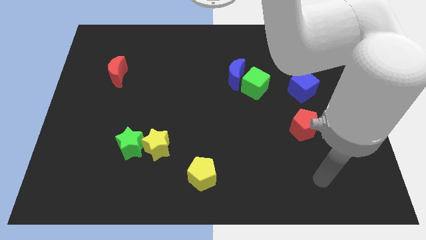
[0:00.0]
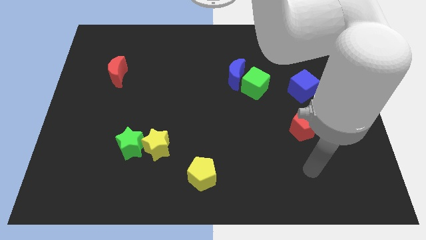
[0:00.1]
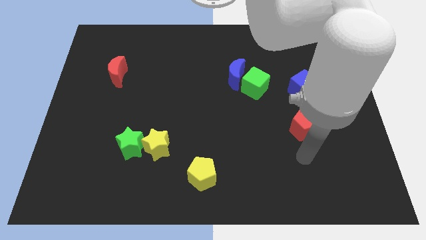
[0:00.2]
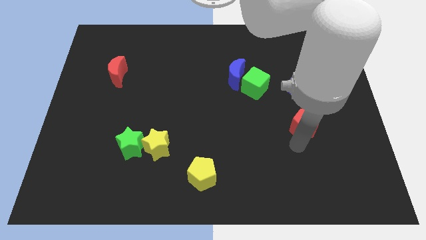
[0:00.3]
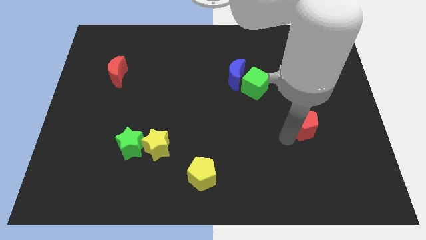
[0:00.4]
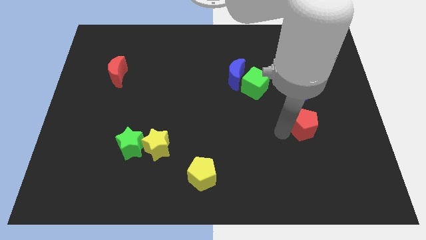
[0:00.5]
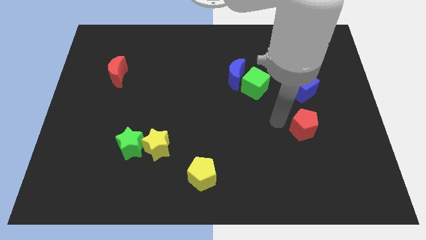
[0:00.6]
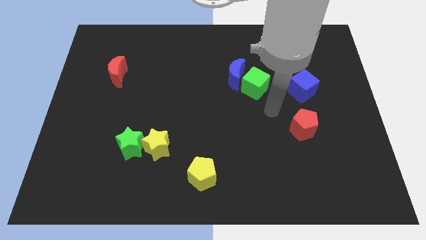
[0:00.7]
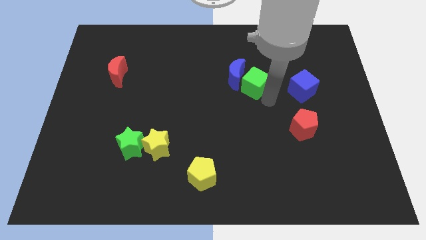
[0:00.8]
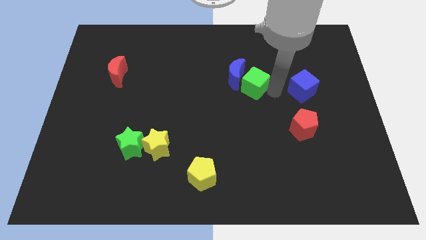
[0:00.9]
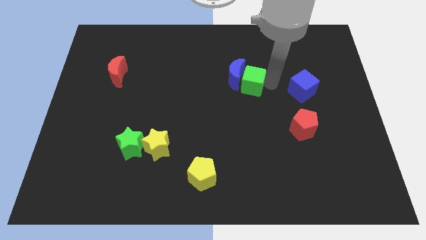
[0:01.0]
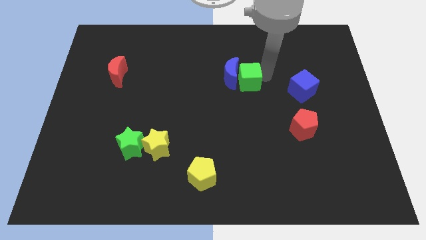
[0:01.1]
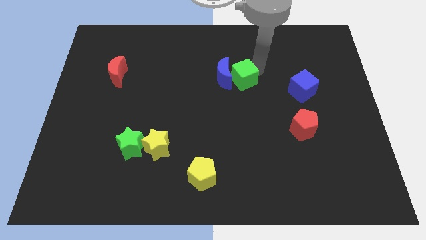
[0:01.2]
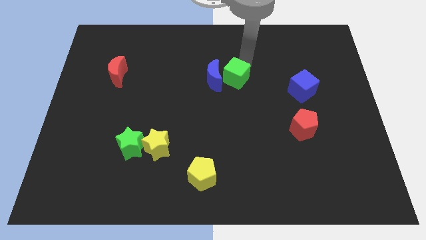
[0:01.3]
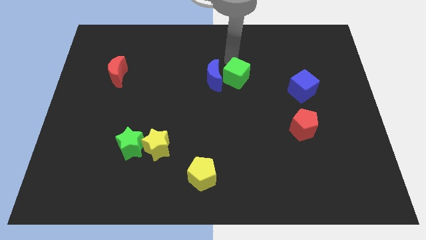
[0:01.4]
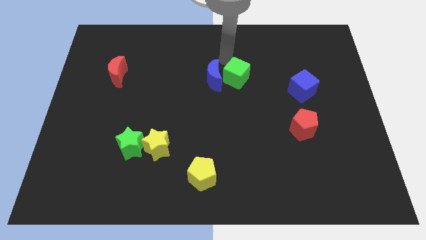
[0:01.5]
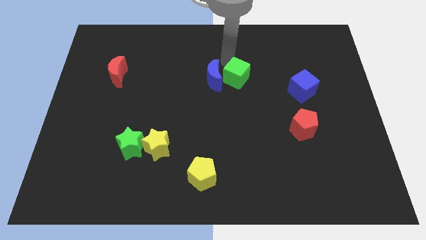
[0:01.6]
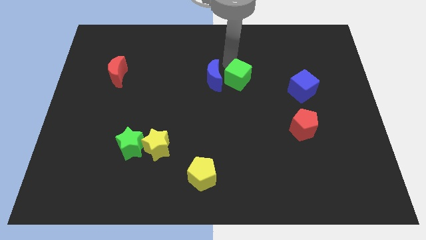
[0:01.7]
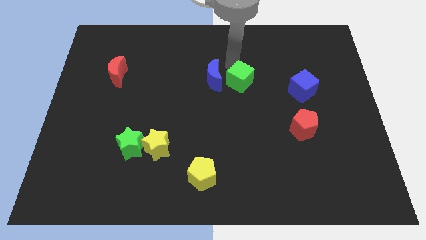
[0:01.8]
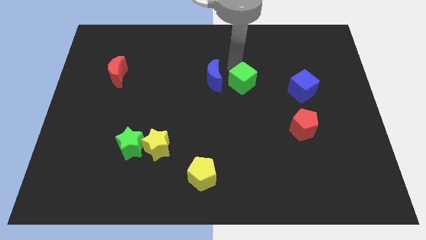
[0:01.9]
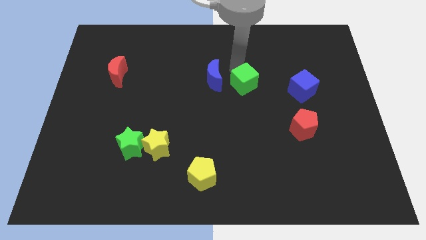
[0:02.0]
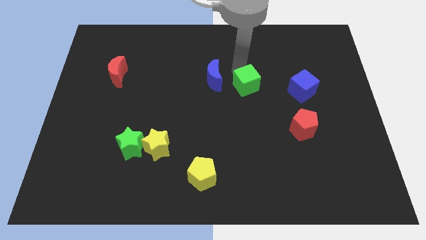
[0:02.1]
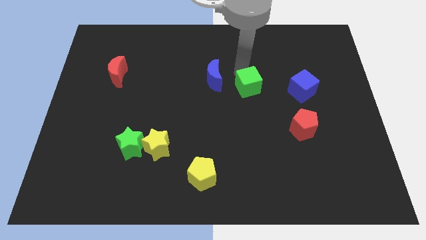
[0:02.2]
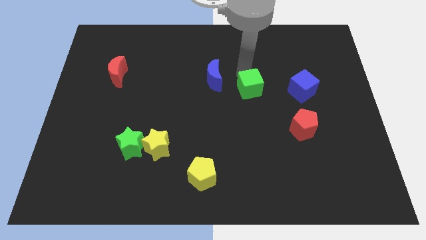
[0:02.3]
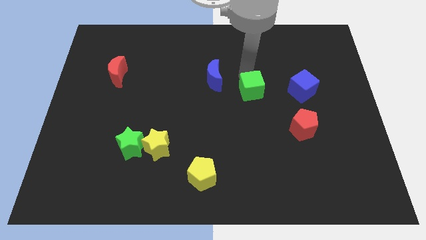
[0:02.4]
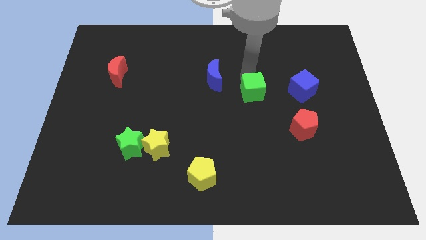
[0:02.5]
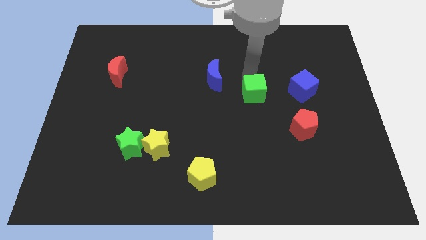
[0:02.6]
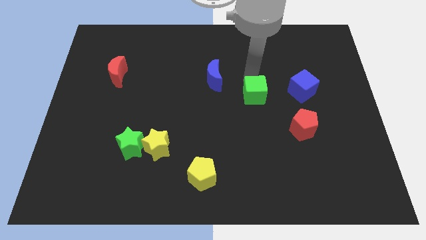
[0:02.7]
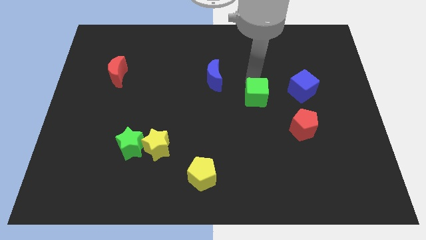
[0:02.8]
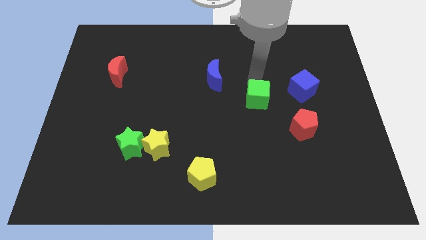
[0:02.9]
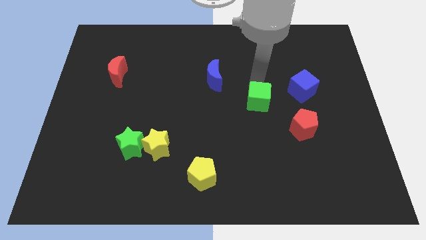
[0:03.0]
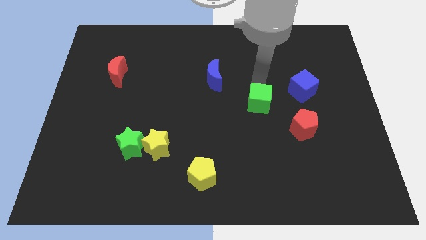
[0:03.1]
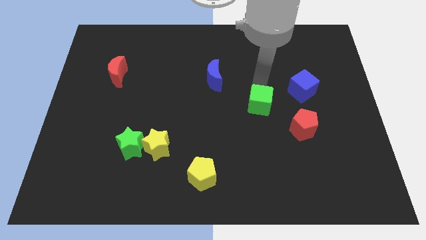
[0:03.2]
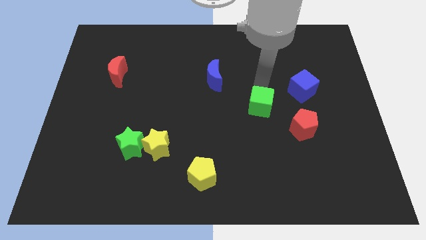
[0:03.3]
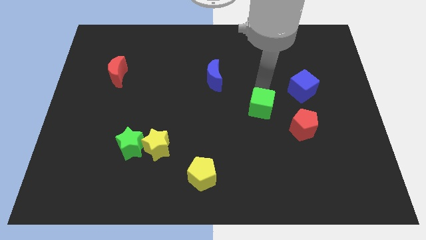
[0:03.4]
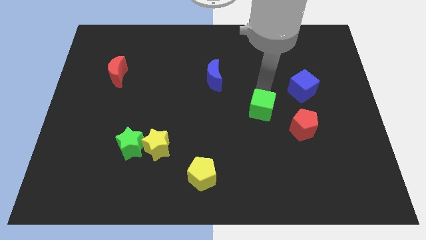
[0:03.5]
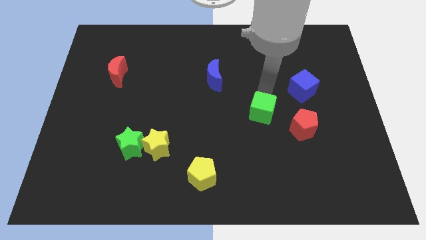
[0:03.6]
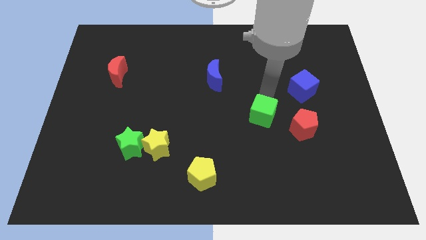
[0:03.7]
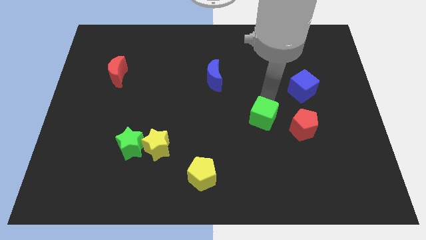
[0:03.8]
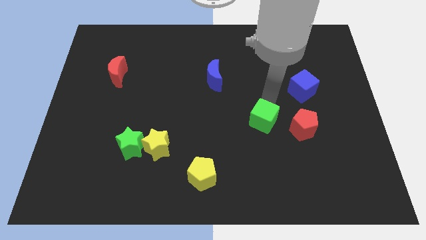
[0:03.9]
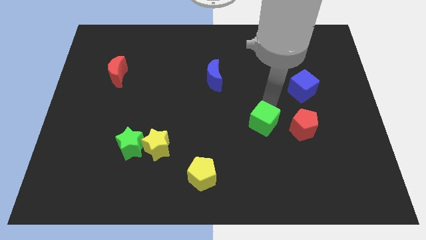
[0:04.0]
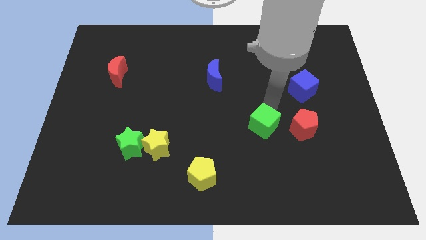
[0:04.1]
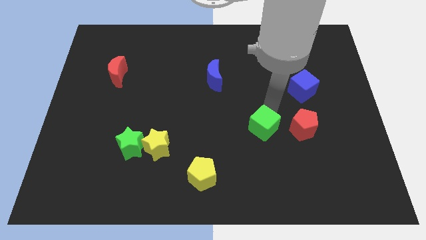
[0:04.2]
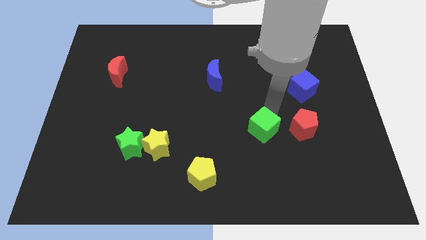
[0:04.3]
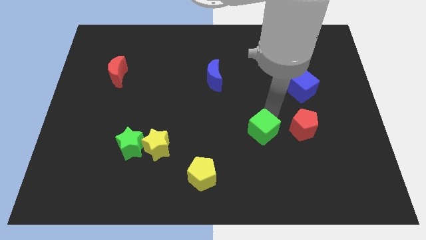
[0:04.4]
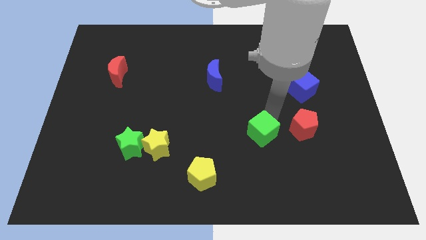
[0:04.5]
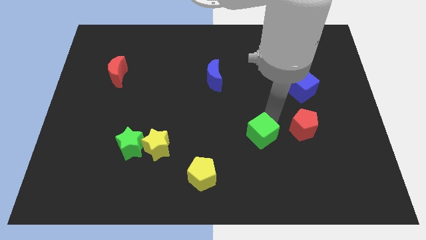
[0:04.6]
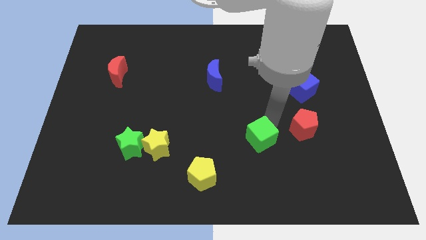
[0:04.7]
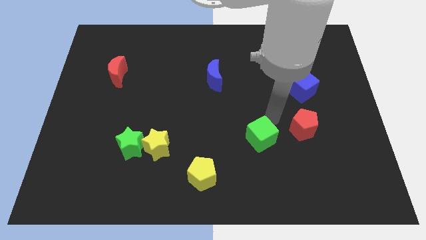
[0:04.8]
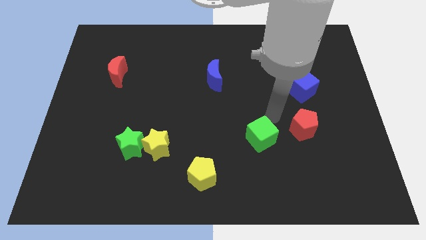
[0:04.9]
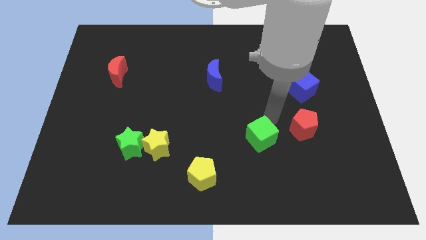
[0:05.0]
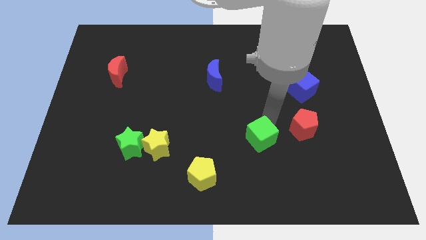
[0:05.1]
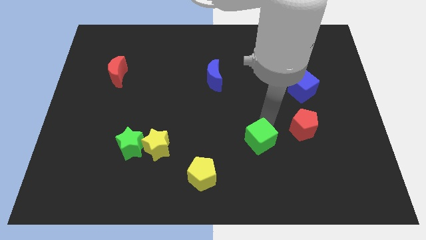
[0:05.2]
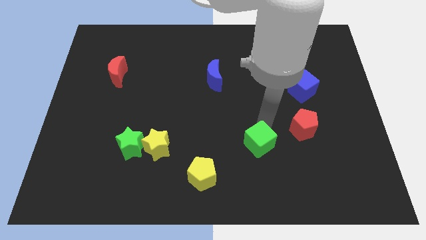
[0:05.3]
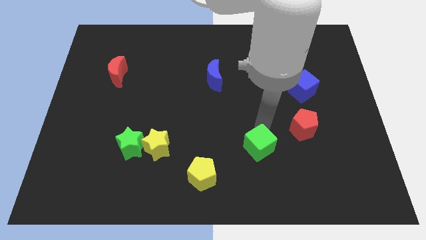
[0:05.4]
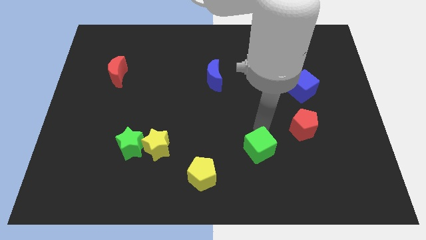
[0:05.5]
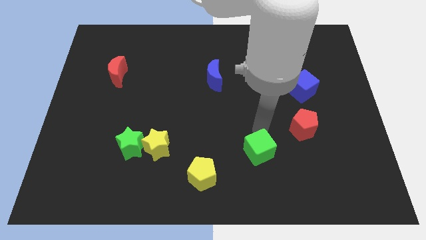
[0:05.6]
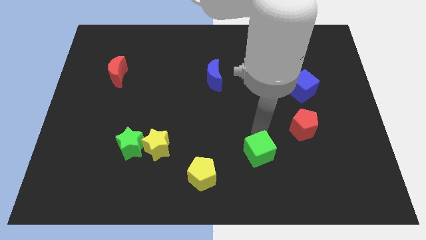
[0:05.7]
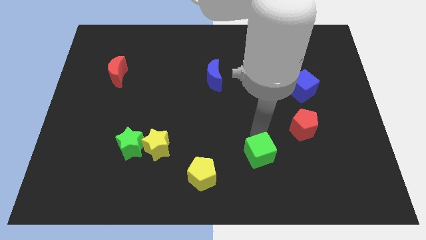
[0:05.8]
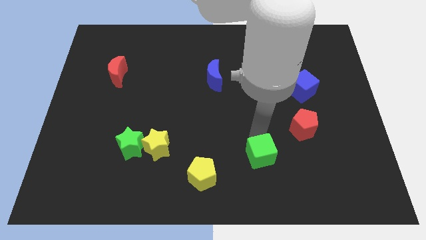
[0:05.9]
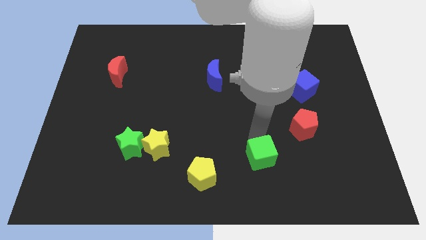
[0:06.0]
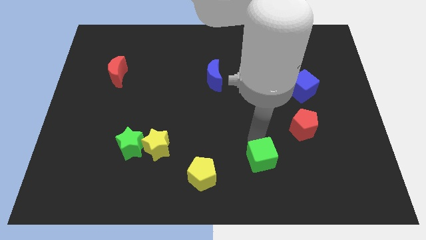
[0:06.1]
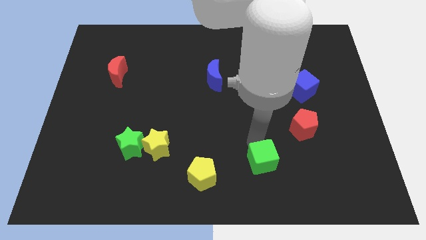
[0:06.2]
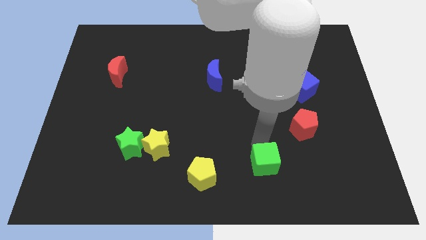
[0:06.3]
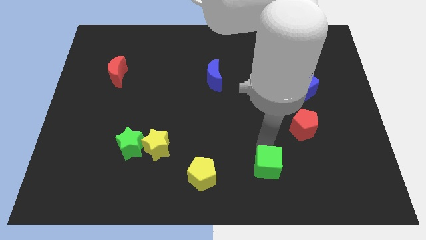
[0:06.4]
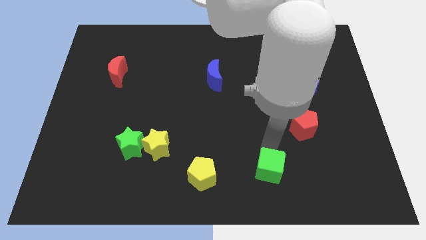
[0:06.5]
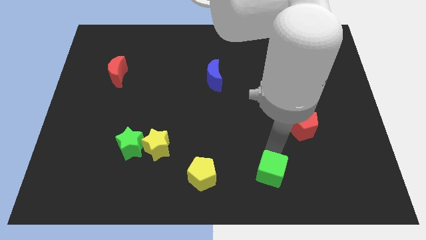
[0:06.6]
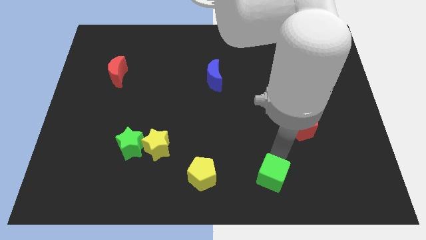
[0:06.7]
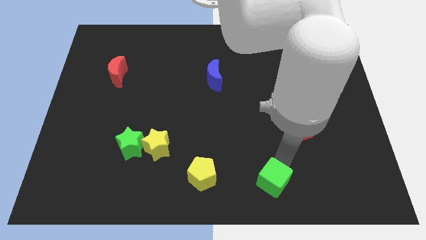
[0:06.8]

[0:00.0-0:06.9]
put the green cube to the bottom side
